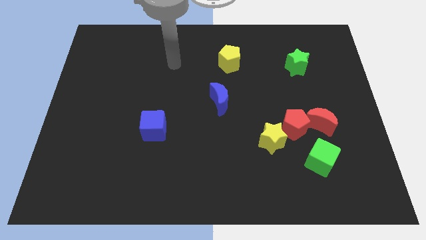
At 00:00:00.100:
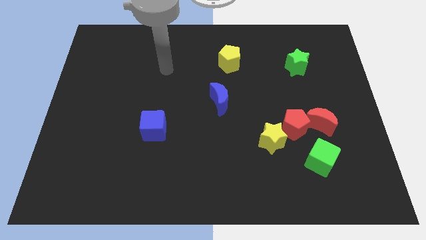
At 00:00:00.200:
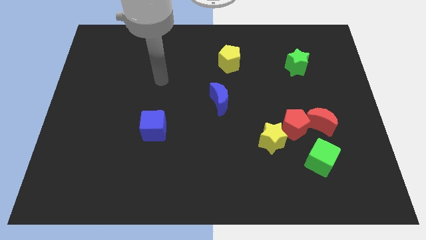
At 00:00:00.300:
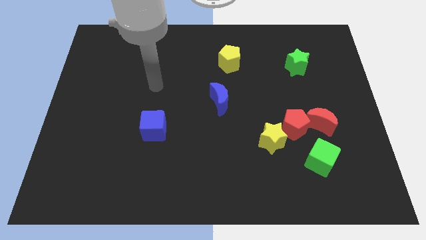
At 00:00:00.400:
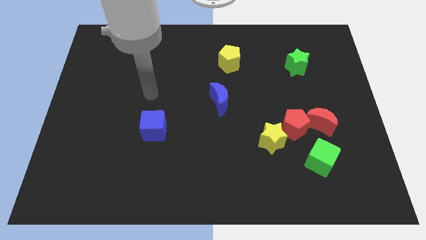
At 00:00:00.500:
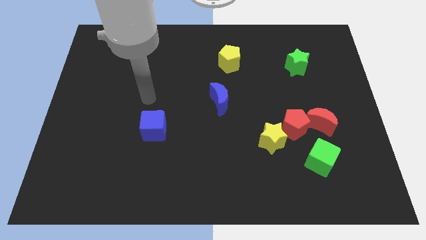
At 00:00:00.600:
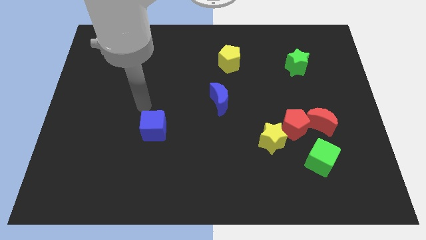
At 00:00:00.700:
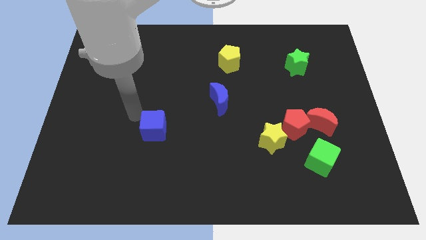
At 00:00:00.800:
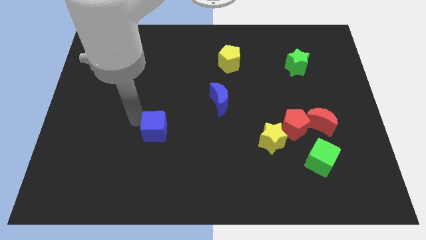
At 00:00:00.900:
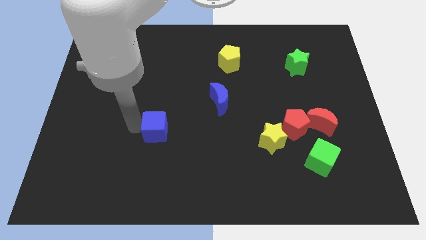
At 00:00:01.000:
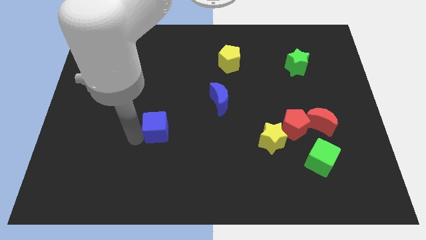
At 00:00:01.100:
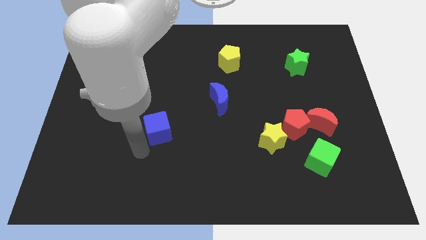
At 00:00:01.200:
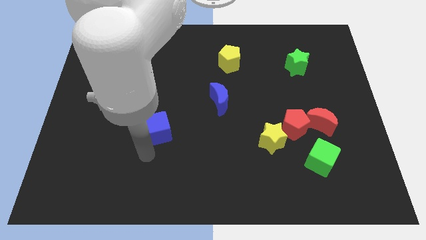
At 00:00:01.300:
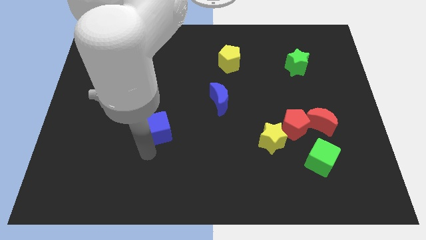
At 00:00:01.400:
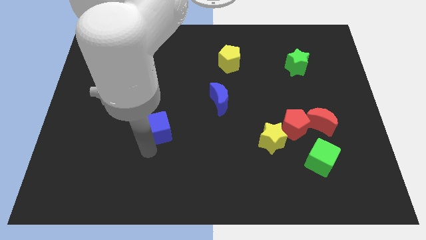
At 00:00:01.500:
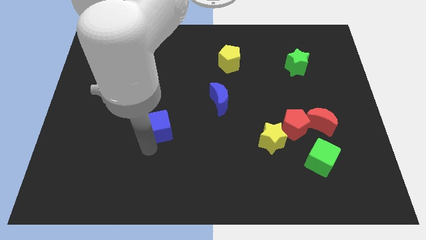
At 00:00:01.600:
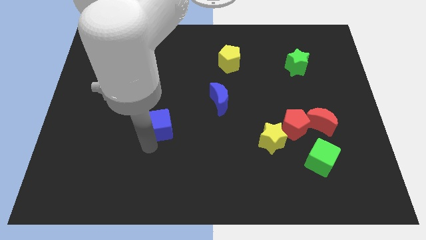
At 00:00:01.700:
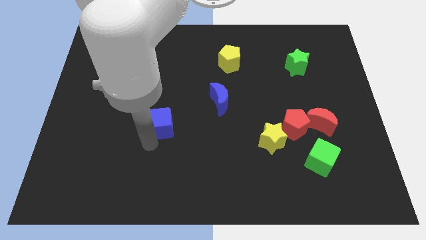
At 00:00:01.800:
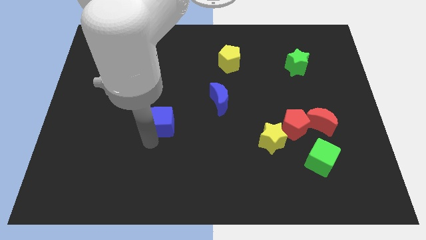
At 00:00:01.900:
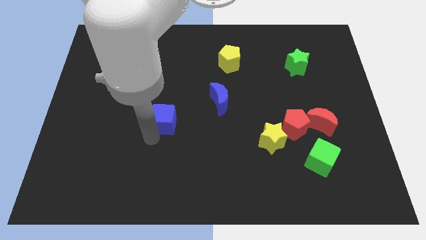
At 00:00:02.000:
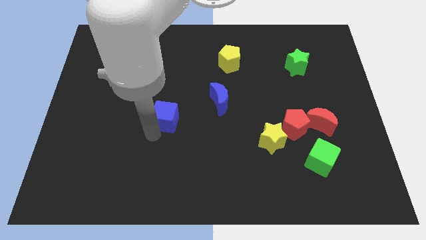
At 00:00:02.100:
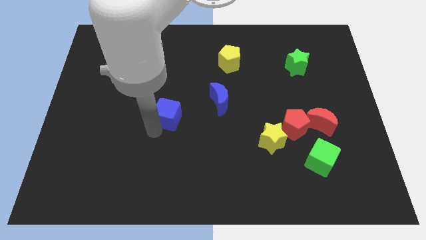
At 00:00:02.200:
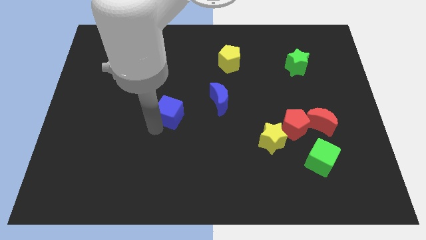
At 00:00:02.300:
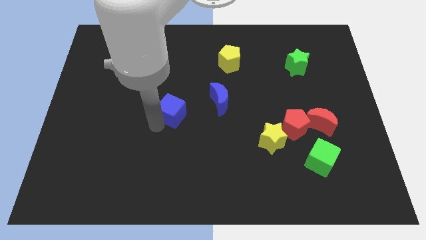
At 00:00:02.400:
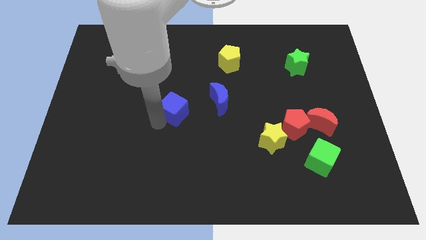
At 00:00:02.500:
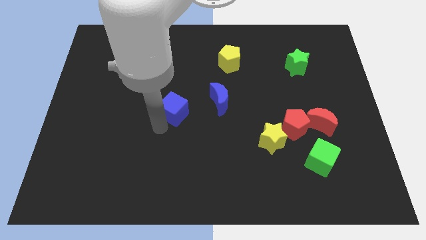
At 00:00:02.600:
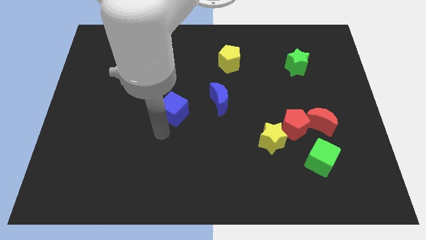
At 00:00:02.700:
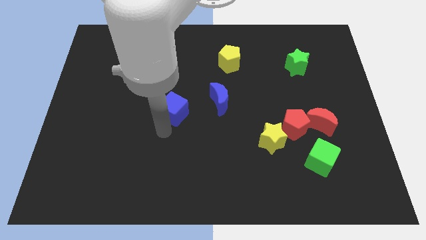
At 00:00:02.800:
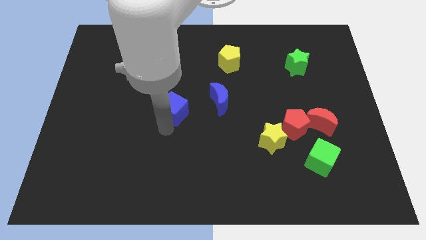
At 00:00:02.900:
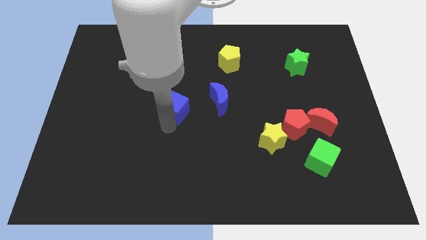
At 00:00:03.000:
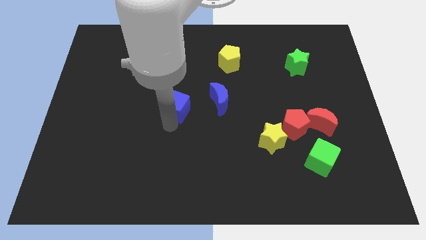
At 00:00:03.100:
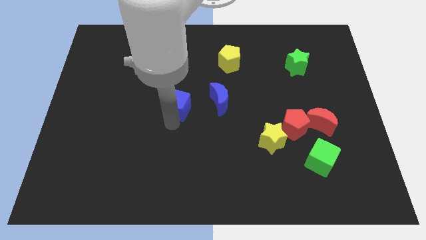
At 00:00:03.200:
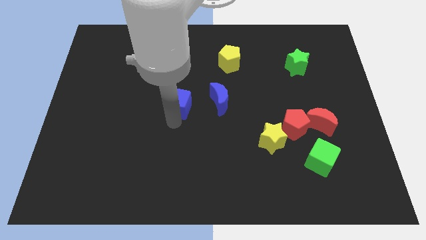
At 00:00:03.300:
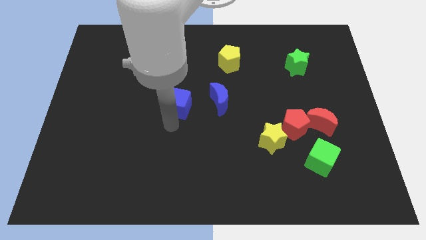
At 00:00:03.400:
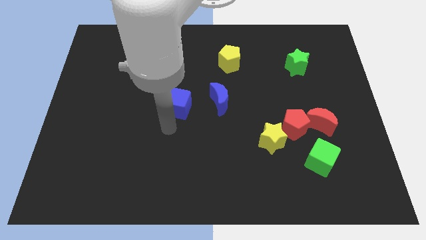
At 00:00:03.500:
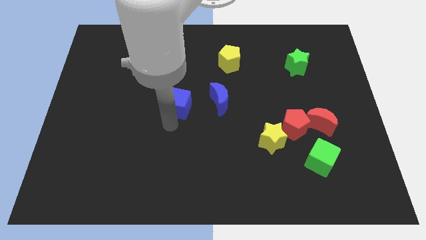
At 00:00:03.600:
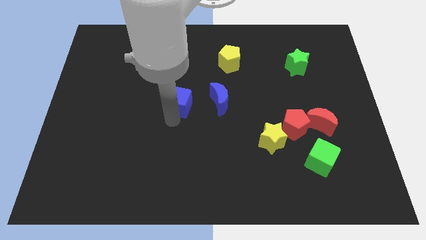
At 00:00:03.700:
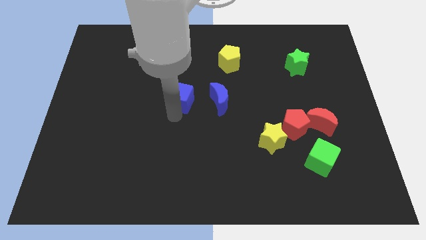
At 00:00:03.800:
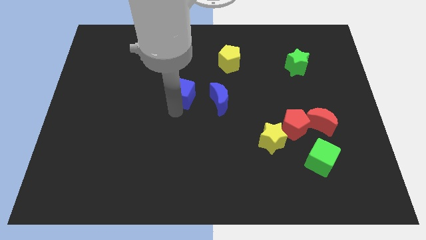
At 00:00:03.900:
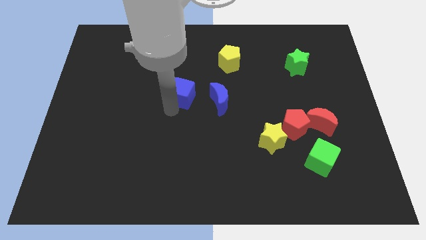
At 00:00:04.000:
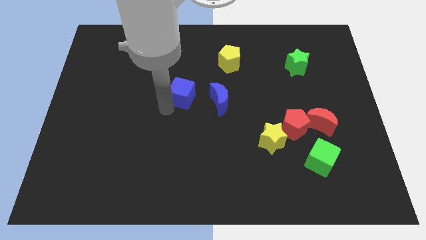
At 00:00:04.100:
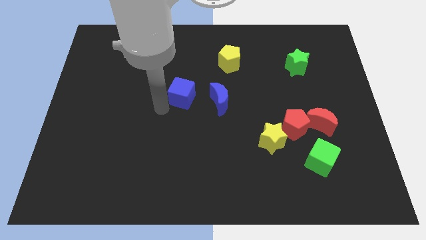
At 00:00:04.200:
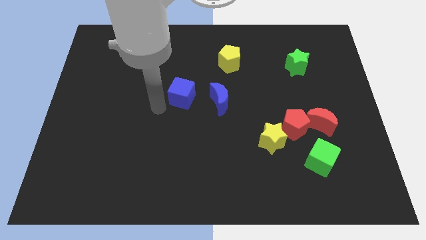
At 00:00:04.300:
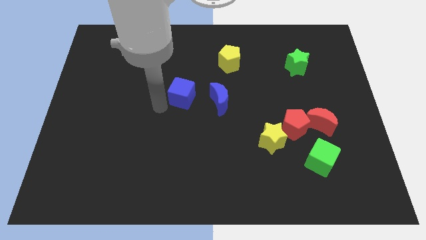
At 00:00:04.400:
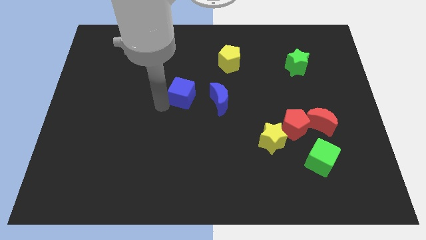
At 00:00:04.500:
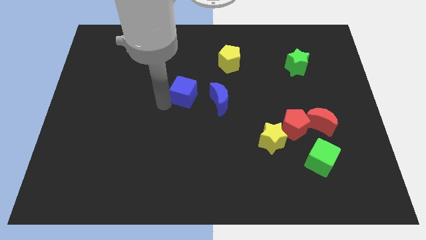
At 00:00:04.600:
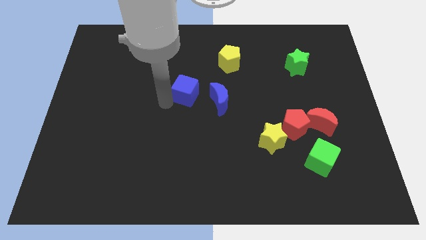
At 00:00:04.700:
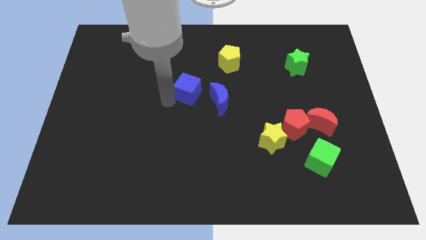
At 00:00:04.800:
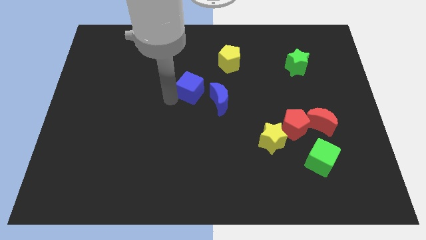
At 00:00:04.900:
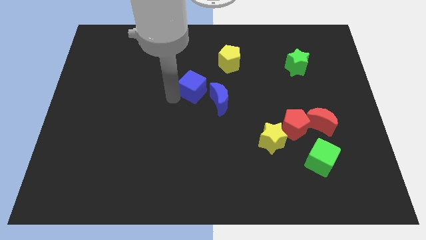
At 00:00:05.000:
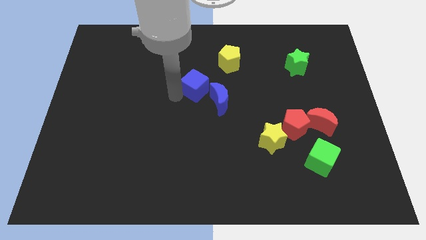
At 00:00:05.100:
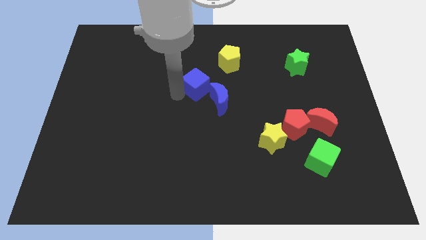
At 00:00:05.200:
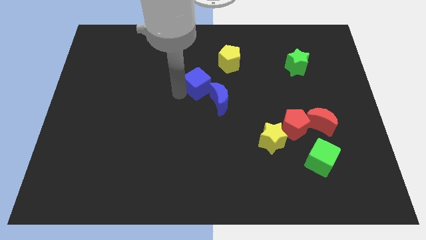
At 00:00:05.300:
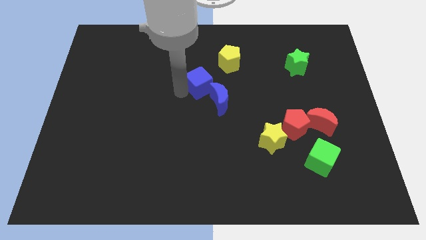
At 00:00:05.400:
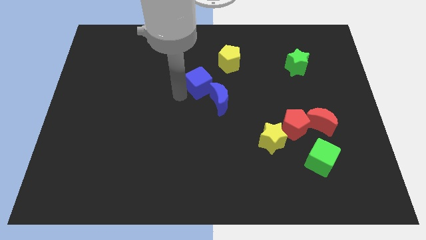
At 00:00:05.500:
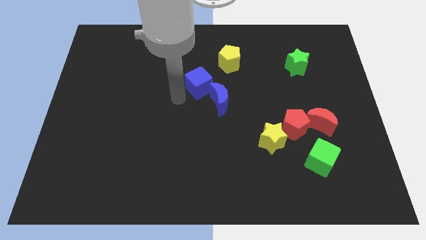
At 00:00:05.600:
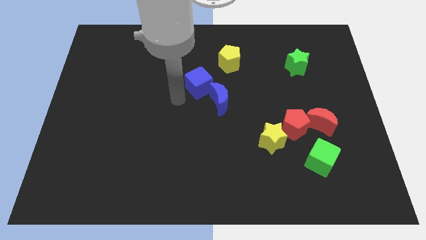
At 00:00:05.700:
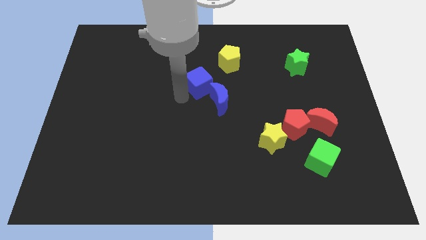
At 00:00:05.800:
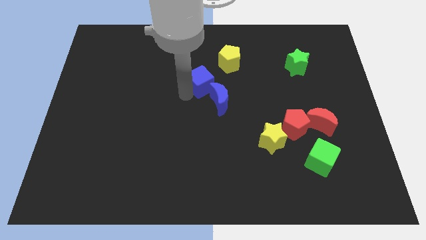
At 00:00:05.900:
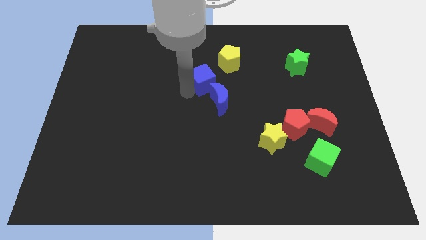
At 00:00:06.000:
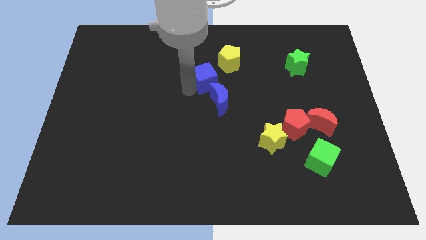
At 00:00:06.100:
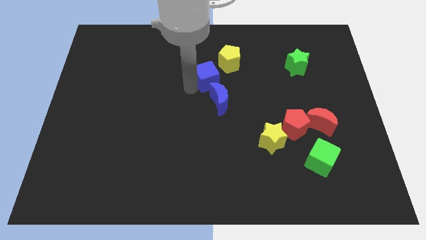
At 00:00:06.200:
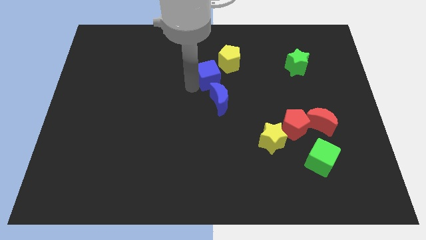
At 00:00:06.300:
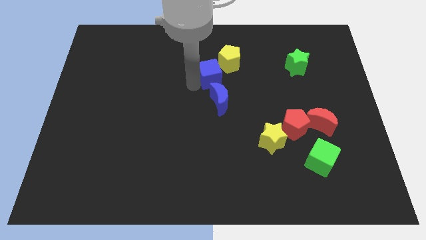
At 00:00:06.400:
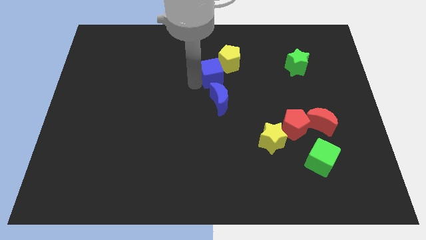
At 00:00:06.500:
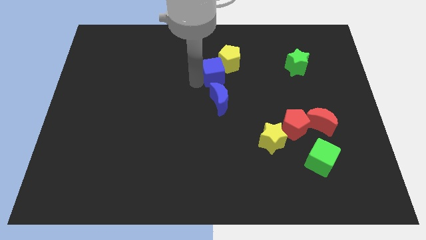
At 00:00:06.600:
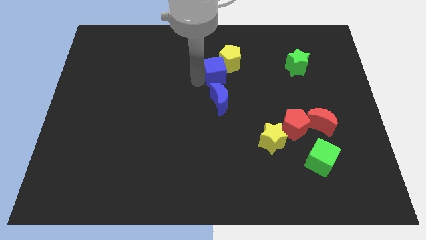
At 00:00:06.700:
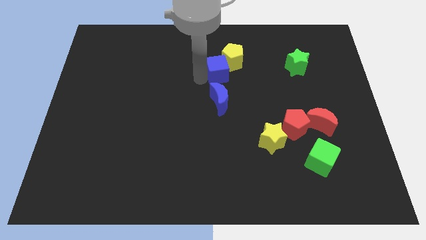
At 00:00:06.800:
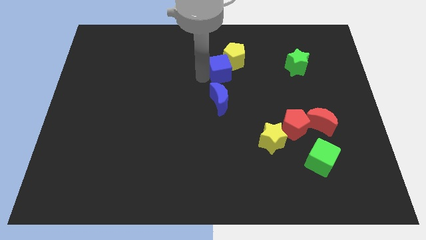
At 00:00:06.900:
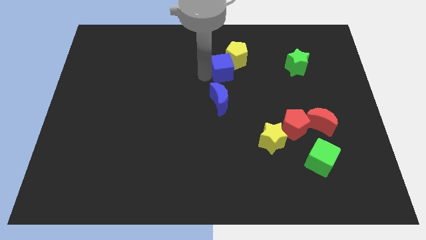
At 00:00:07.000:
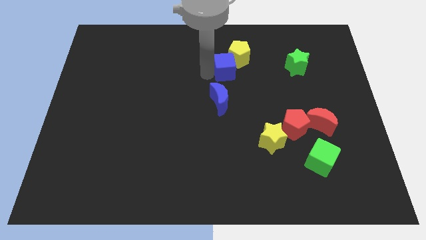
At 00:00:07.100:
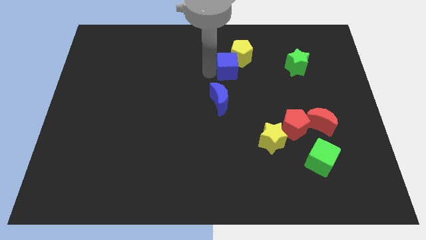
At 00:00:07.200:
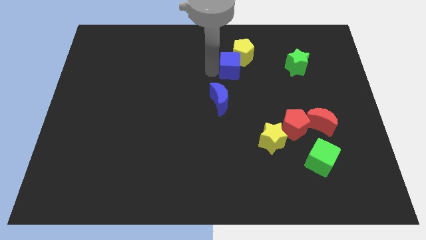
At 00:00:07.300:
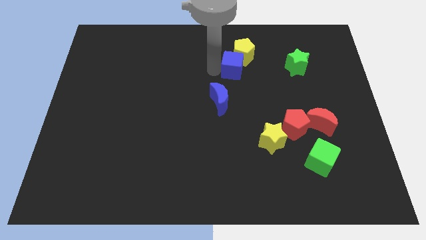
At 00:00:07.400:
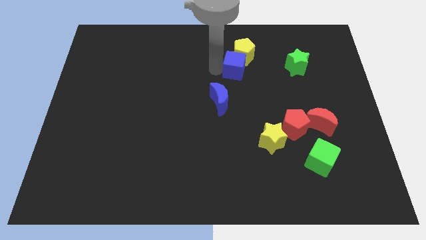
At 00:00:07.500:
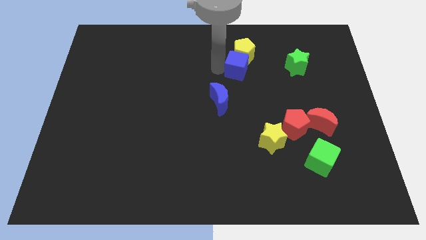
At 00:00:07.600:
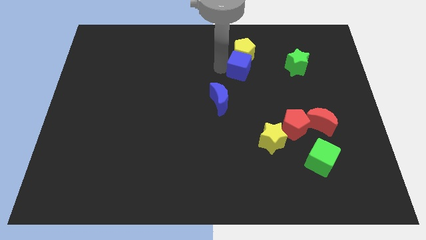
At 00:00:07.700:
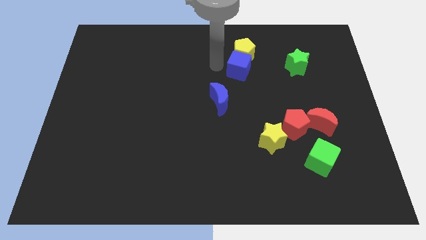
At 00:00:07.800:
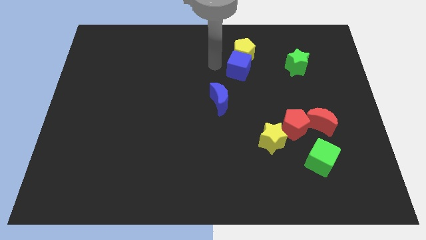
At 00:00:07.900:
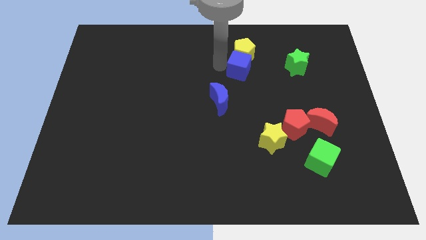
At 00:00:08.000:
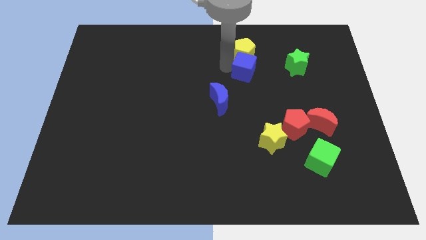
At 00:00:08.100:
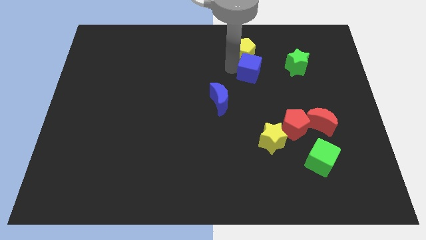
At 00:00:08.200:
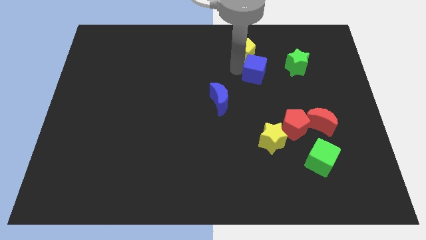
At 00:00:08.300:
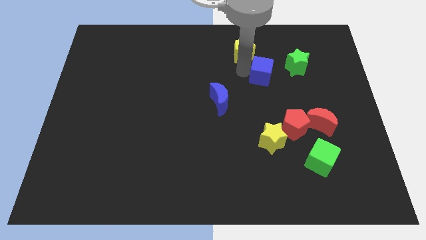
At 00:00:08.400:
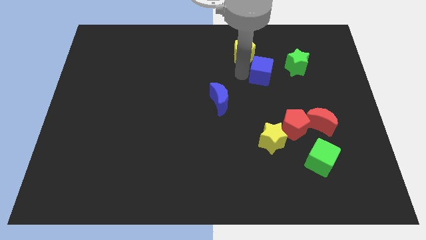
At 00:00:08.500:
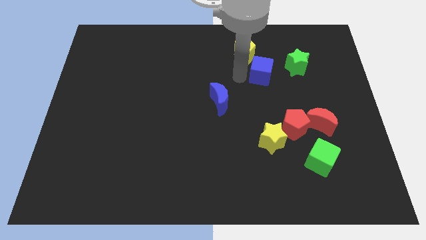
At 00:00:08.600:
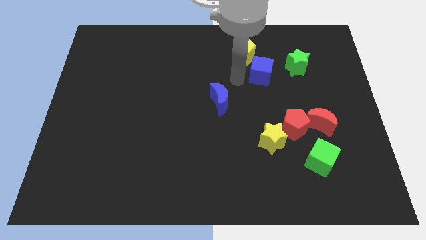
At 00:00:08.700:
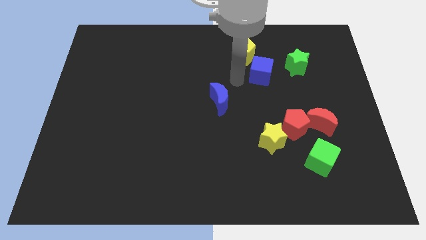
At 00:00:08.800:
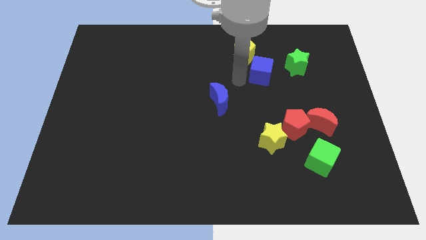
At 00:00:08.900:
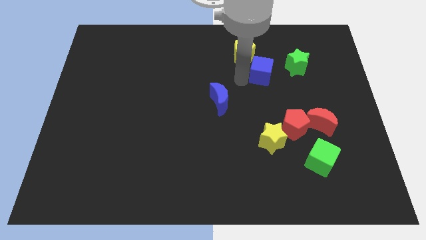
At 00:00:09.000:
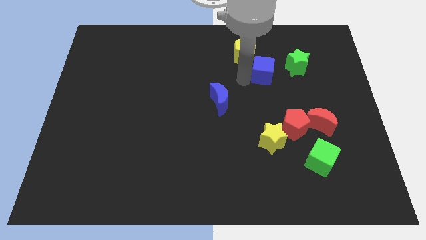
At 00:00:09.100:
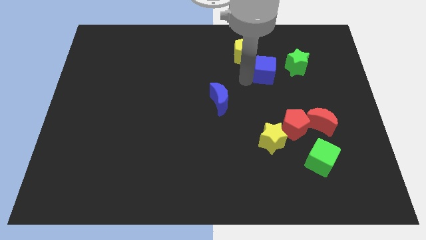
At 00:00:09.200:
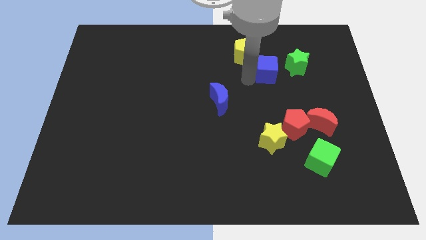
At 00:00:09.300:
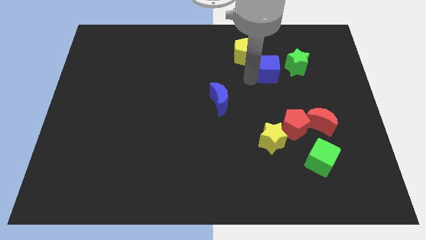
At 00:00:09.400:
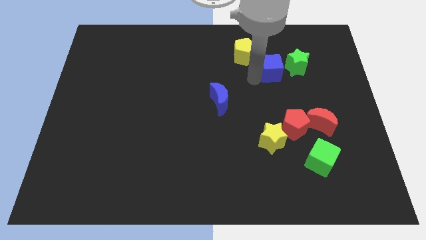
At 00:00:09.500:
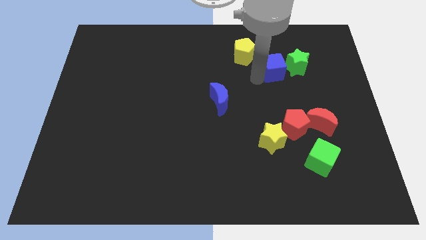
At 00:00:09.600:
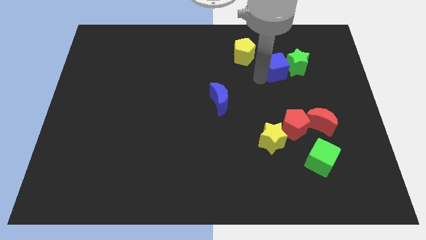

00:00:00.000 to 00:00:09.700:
slide the blue cube next to the green star
